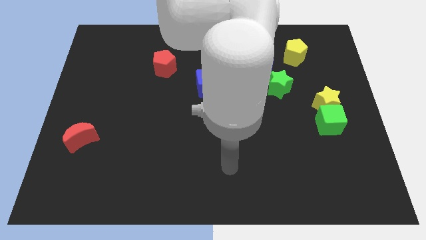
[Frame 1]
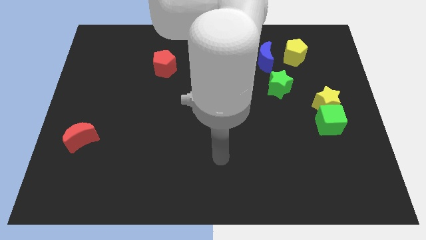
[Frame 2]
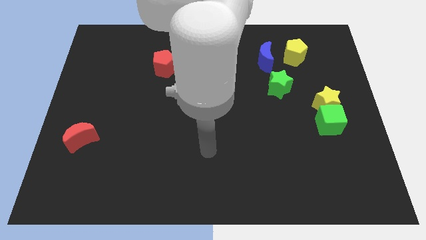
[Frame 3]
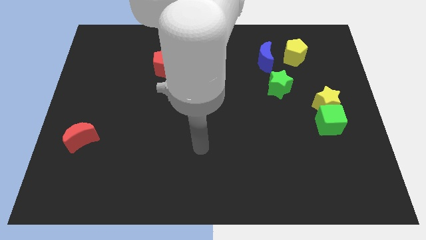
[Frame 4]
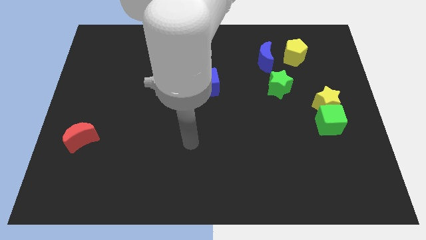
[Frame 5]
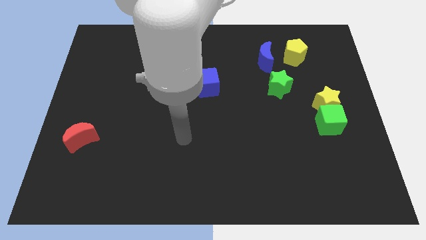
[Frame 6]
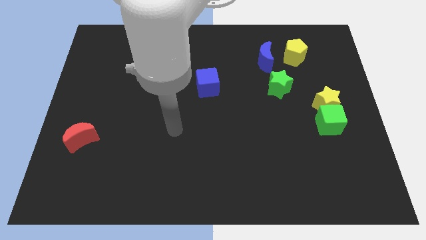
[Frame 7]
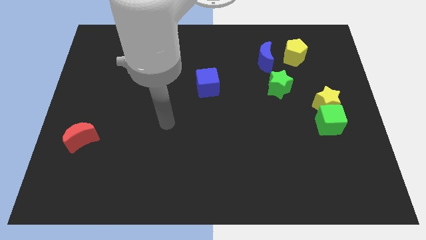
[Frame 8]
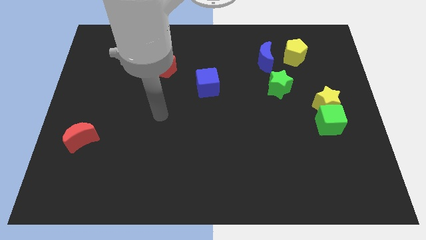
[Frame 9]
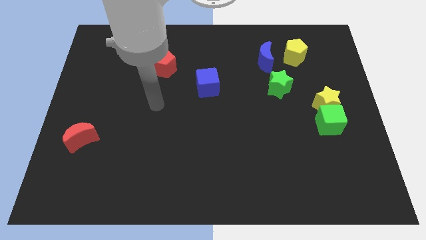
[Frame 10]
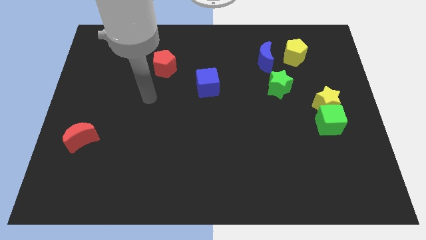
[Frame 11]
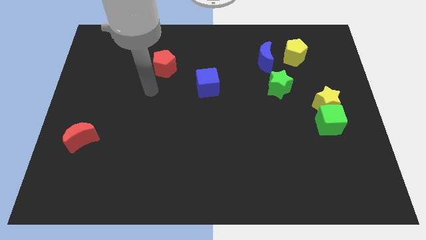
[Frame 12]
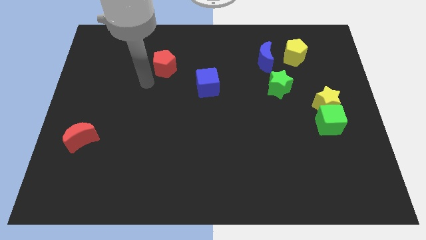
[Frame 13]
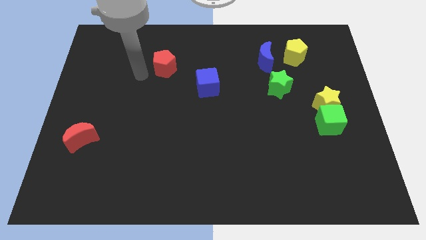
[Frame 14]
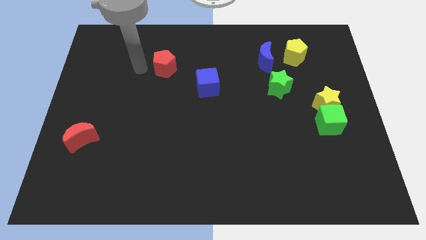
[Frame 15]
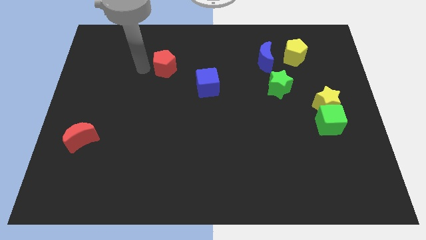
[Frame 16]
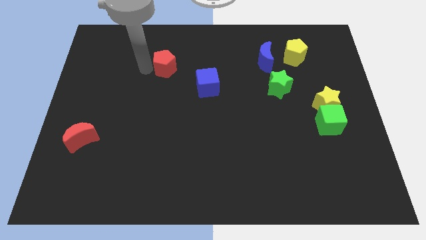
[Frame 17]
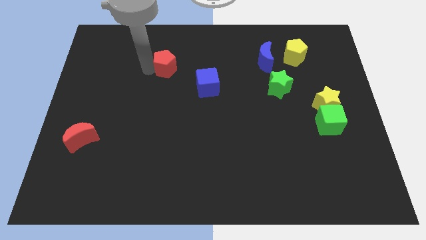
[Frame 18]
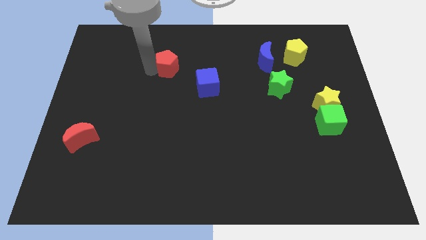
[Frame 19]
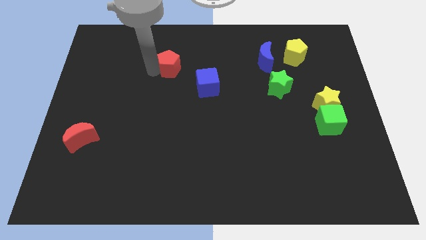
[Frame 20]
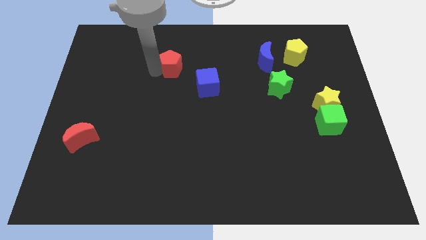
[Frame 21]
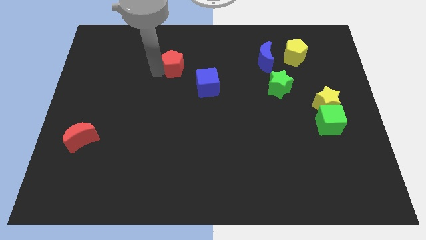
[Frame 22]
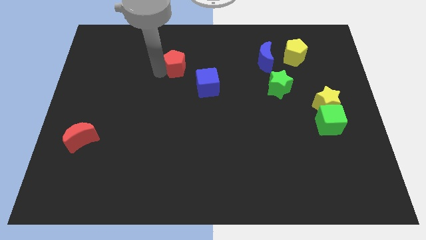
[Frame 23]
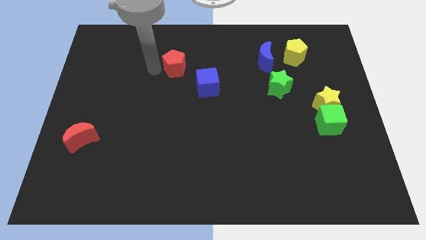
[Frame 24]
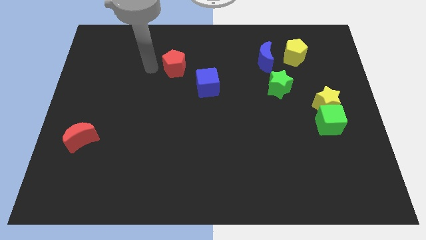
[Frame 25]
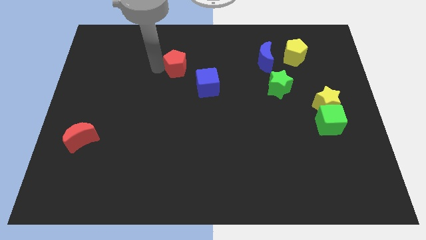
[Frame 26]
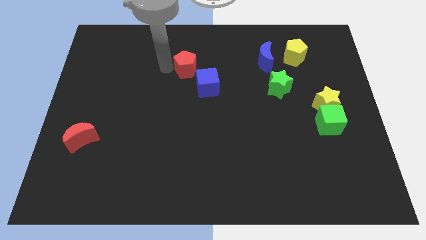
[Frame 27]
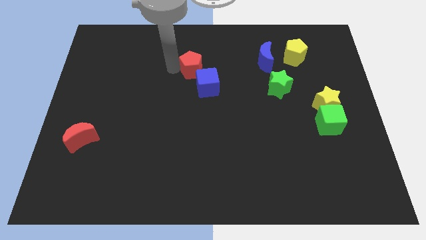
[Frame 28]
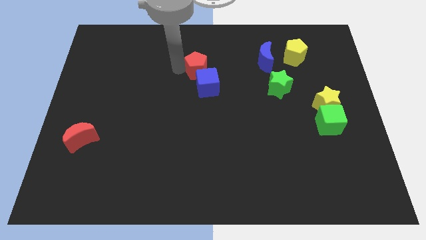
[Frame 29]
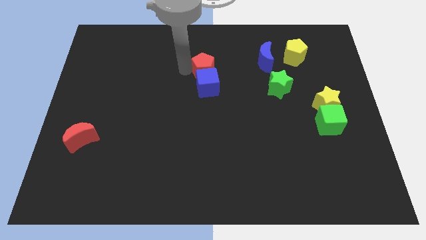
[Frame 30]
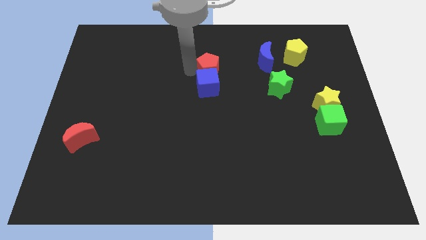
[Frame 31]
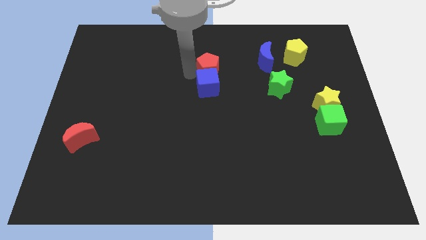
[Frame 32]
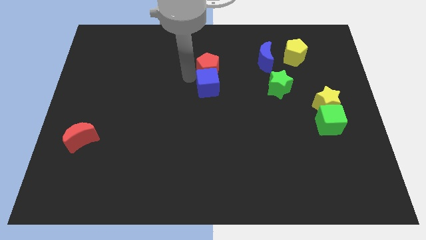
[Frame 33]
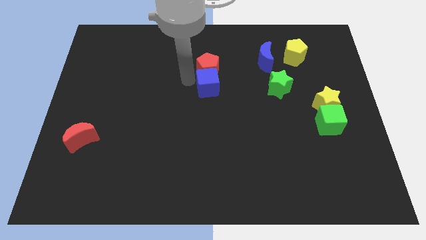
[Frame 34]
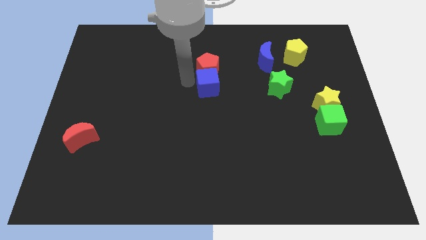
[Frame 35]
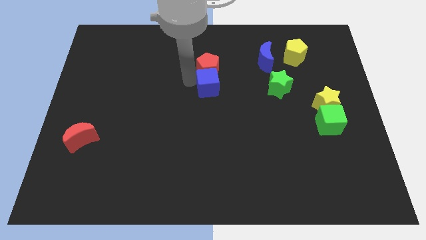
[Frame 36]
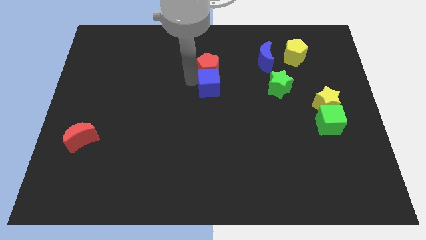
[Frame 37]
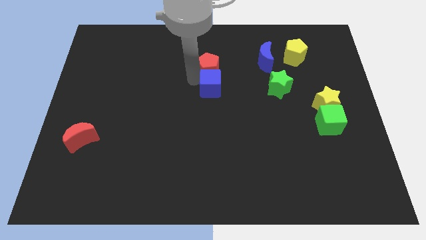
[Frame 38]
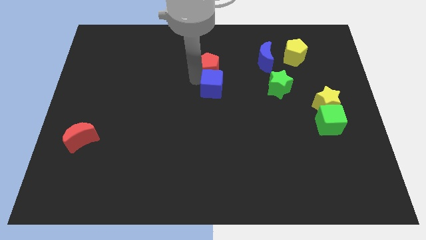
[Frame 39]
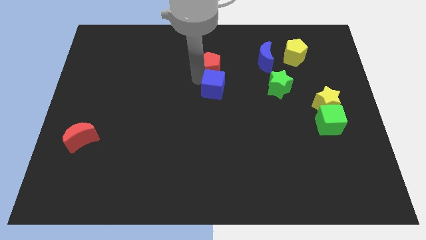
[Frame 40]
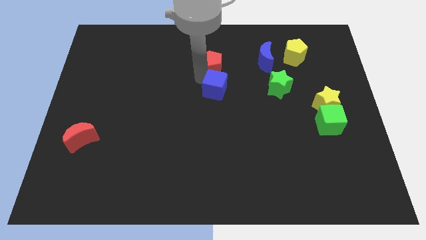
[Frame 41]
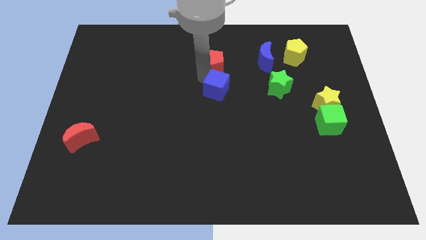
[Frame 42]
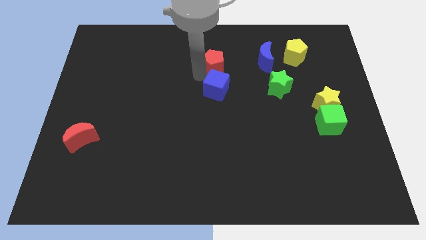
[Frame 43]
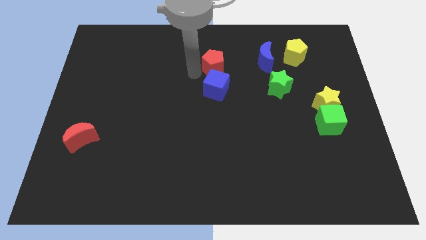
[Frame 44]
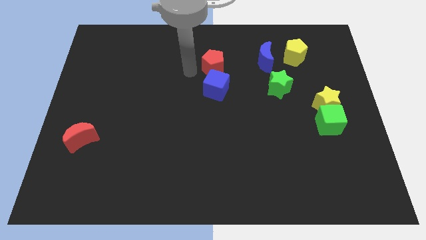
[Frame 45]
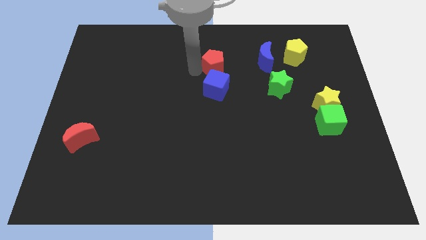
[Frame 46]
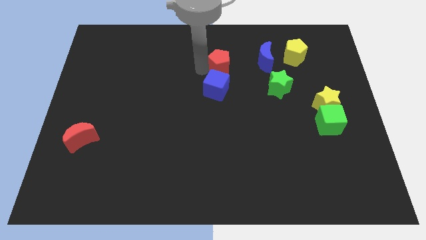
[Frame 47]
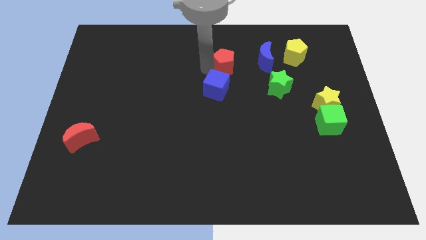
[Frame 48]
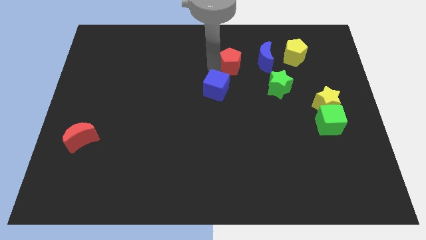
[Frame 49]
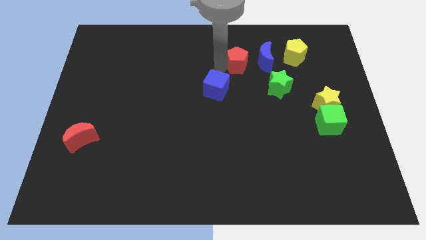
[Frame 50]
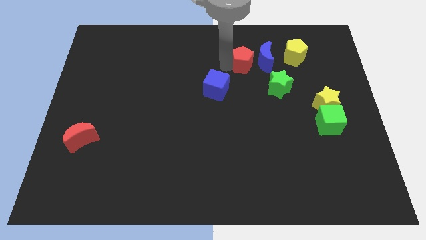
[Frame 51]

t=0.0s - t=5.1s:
slide the red pentagon to the blue moon

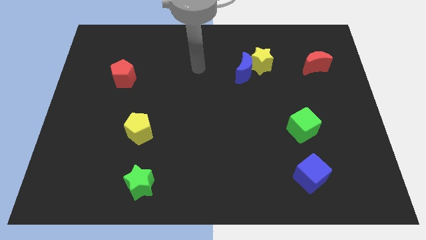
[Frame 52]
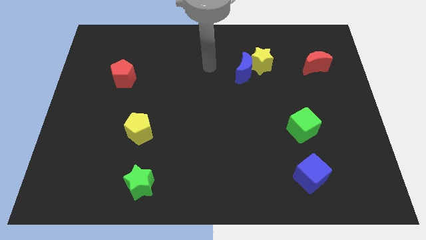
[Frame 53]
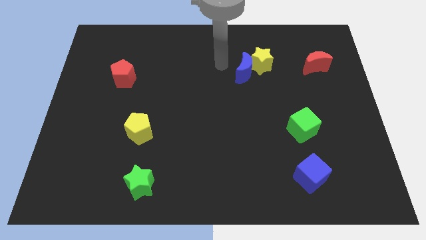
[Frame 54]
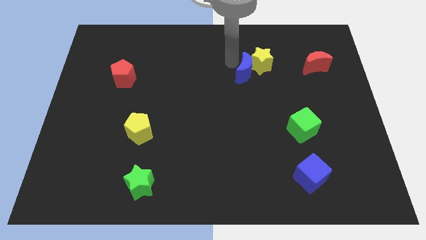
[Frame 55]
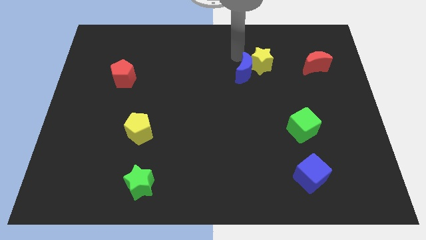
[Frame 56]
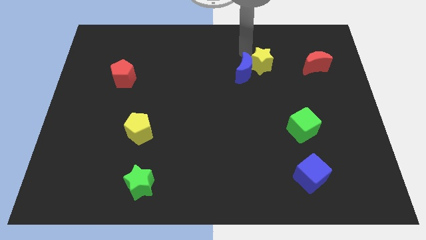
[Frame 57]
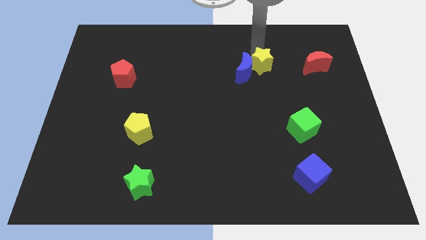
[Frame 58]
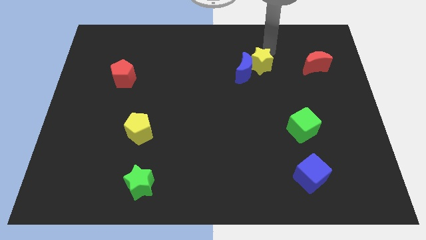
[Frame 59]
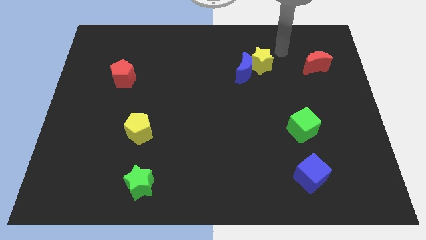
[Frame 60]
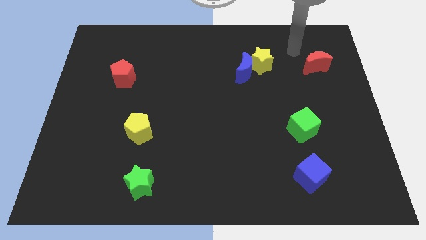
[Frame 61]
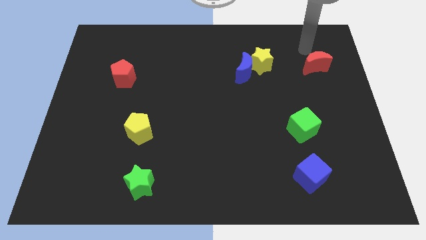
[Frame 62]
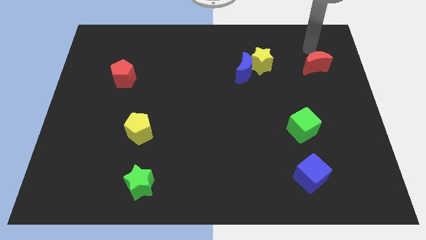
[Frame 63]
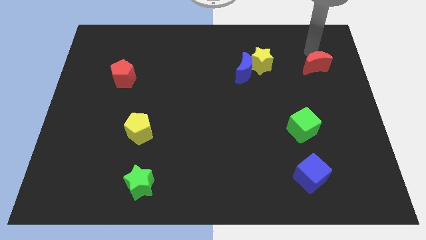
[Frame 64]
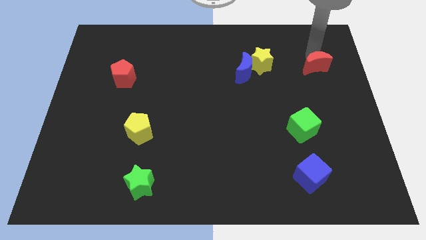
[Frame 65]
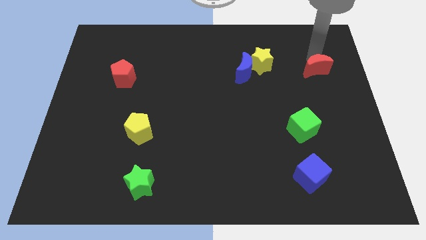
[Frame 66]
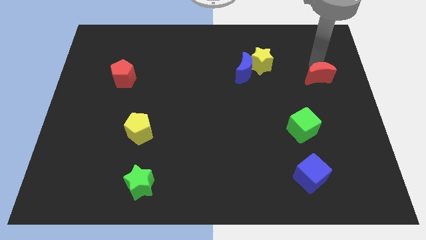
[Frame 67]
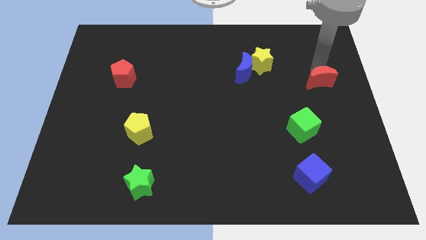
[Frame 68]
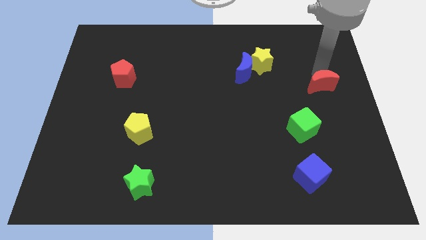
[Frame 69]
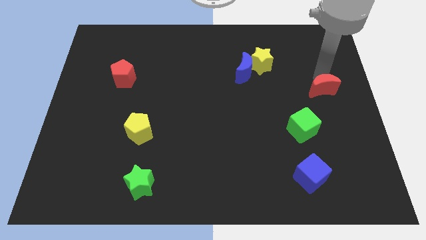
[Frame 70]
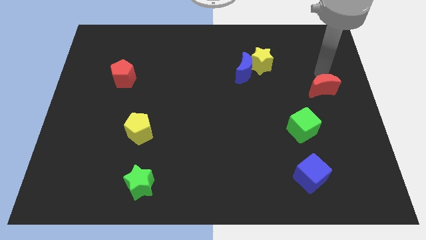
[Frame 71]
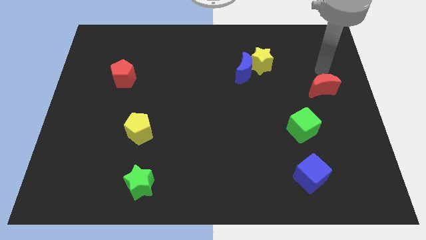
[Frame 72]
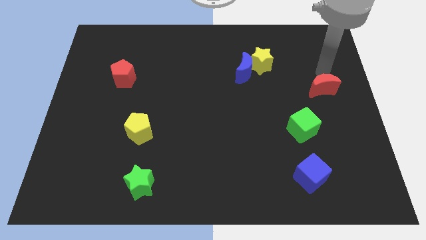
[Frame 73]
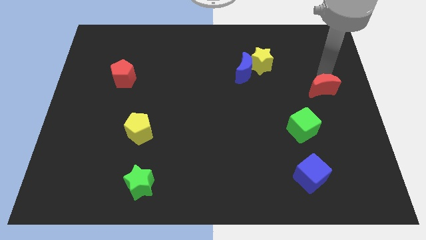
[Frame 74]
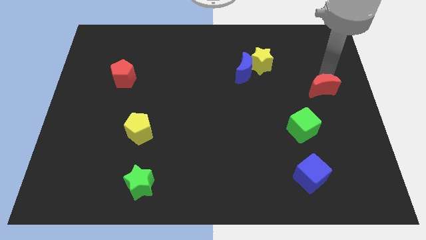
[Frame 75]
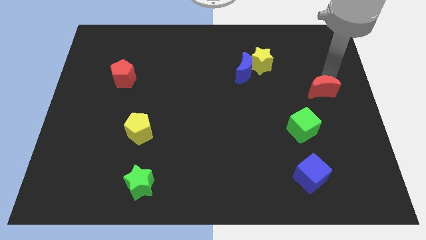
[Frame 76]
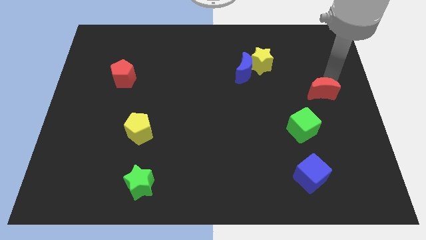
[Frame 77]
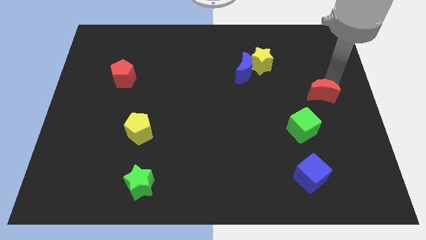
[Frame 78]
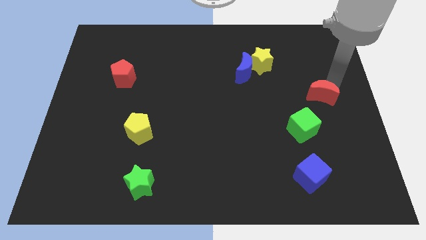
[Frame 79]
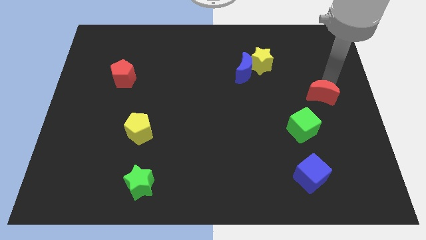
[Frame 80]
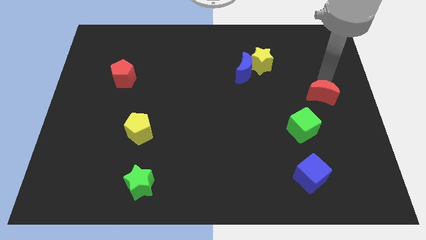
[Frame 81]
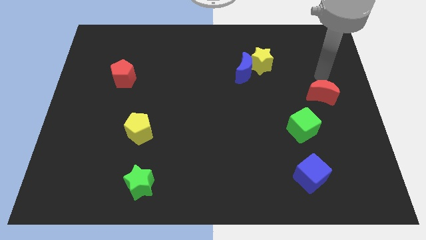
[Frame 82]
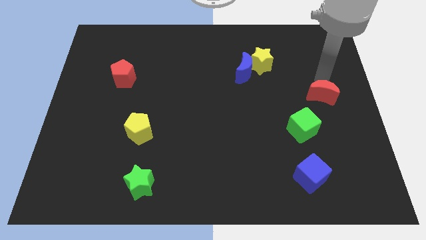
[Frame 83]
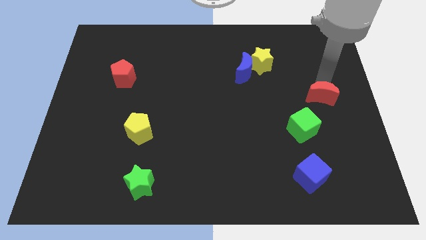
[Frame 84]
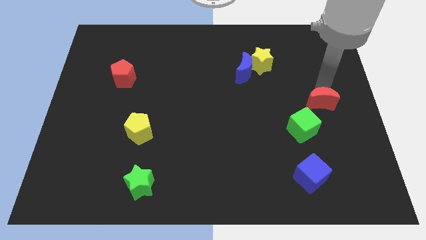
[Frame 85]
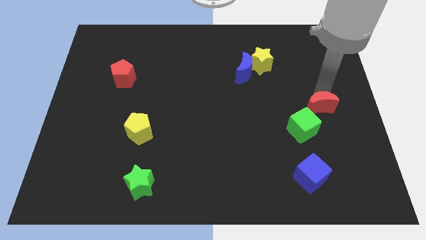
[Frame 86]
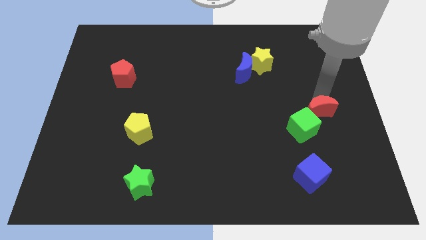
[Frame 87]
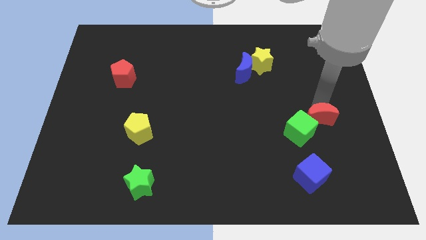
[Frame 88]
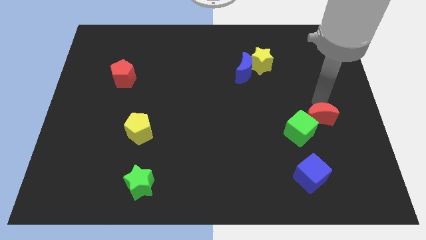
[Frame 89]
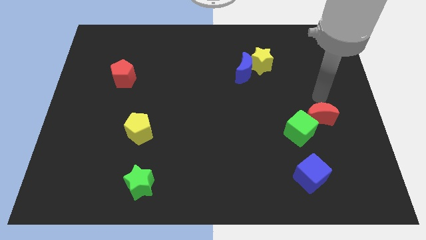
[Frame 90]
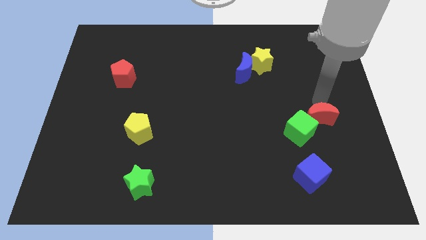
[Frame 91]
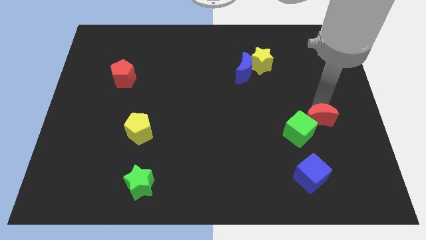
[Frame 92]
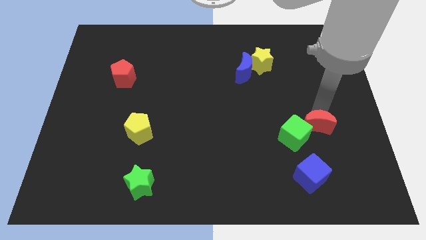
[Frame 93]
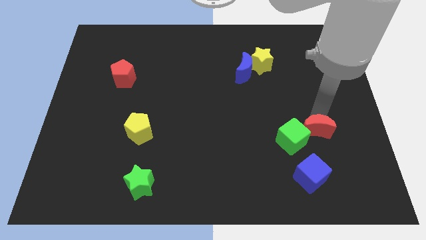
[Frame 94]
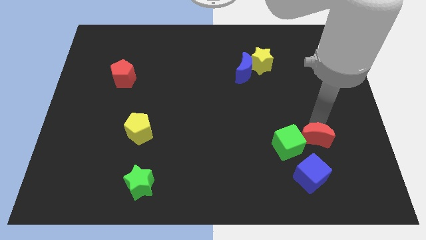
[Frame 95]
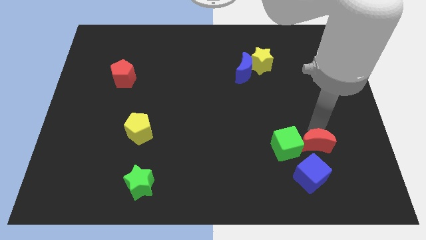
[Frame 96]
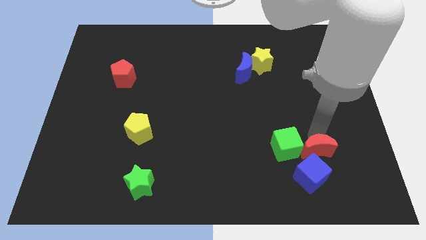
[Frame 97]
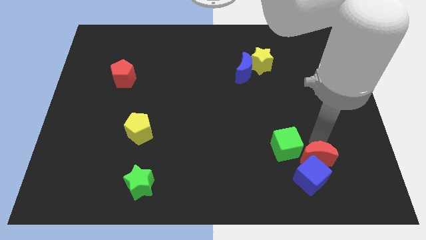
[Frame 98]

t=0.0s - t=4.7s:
move the red moon next to the blue cube
